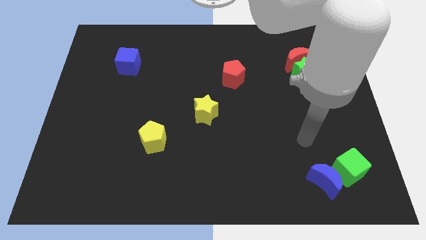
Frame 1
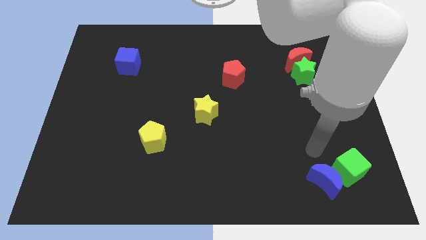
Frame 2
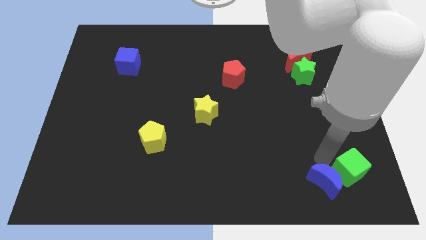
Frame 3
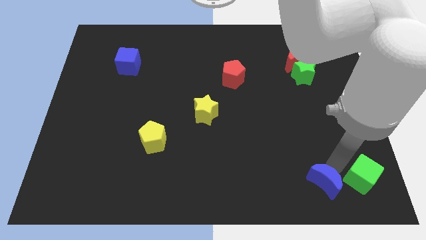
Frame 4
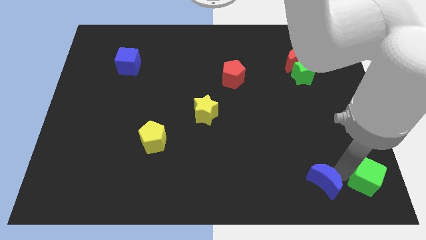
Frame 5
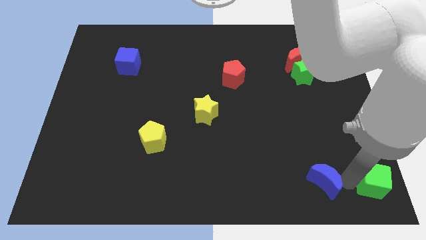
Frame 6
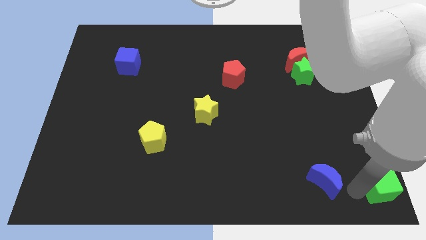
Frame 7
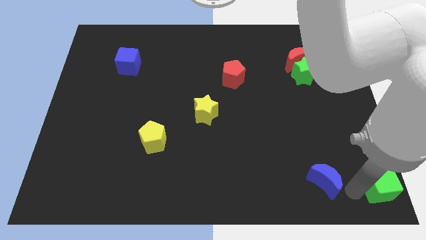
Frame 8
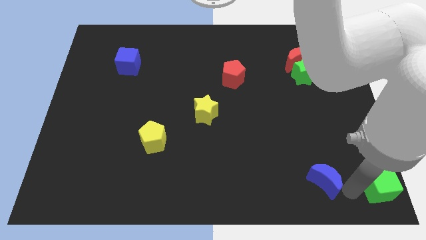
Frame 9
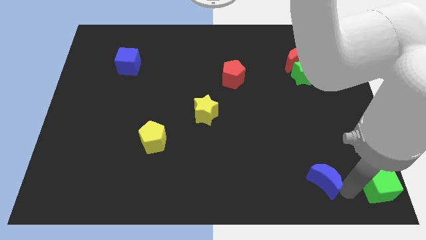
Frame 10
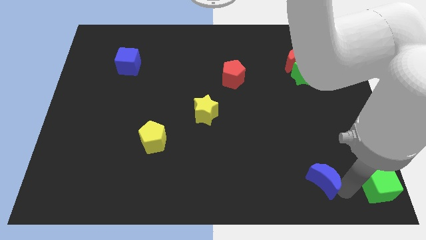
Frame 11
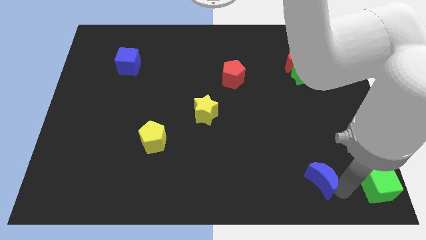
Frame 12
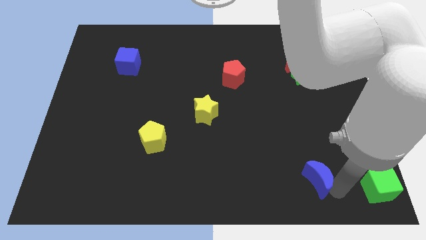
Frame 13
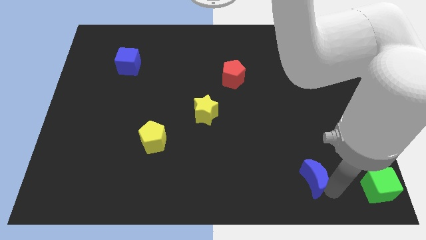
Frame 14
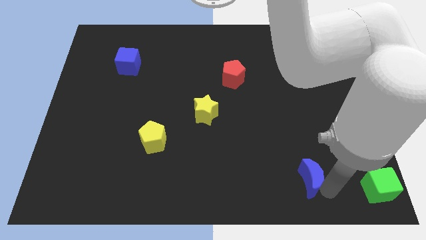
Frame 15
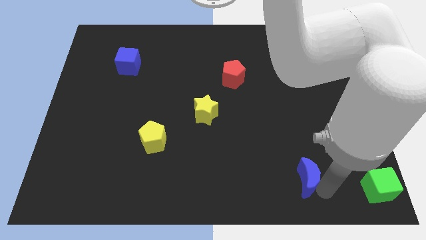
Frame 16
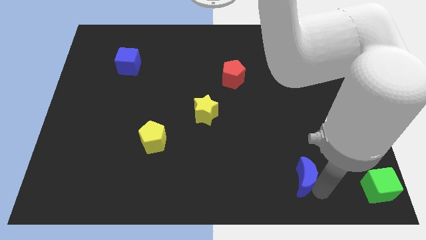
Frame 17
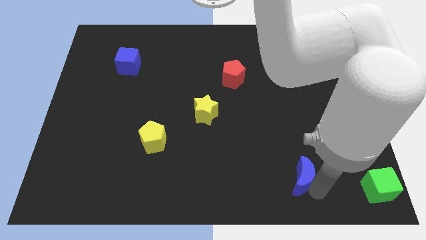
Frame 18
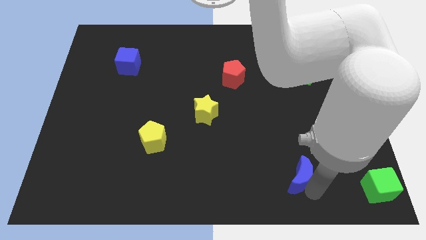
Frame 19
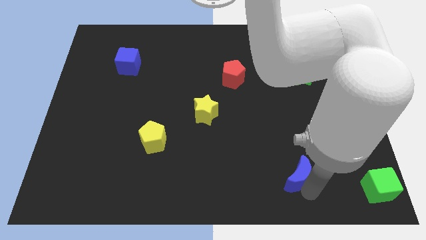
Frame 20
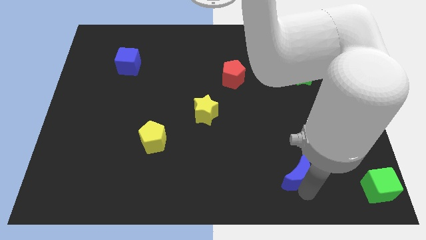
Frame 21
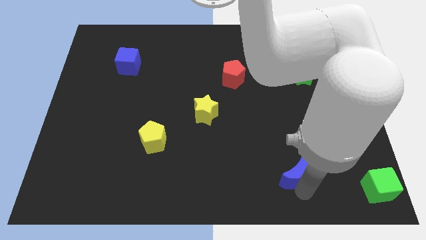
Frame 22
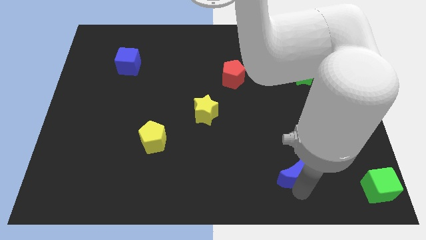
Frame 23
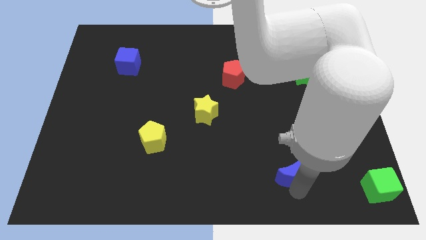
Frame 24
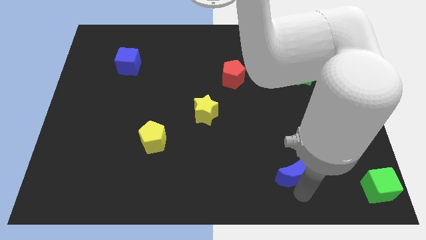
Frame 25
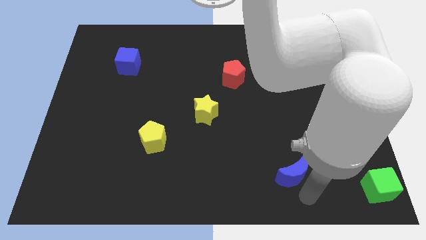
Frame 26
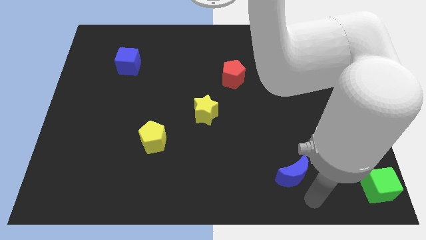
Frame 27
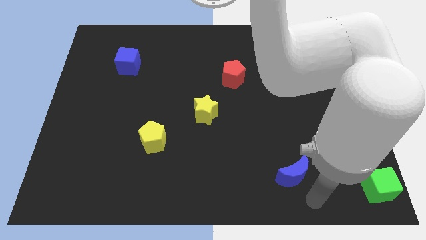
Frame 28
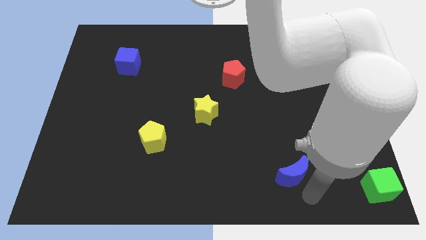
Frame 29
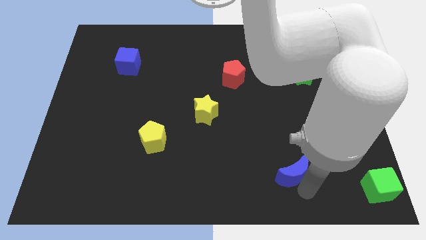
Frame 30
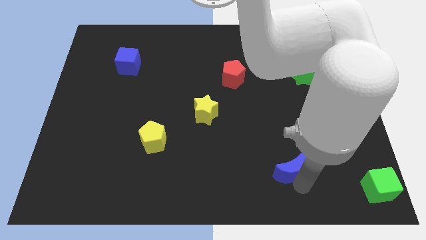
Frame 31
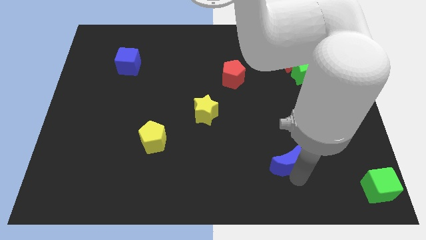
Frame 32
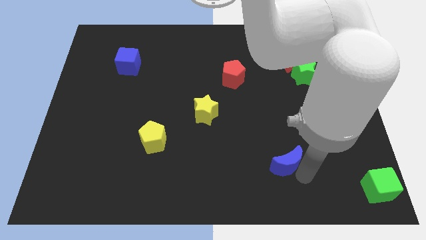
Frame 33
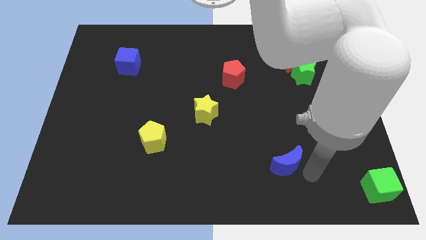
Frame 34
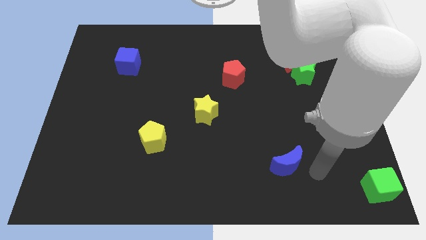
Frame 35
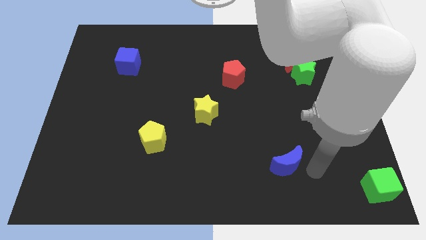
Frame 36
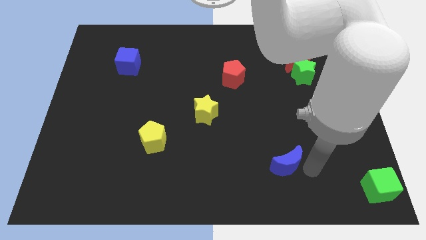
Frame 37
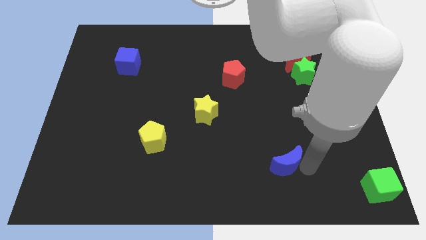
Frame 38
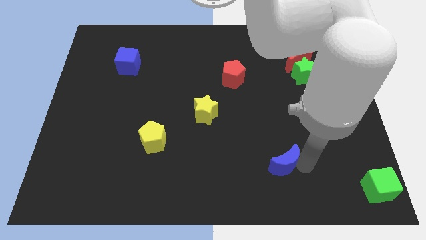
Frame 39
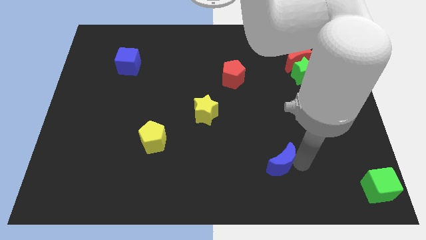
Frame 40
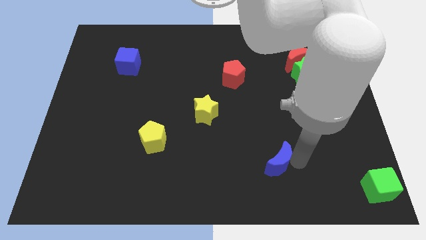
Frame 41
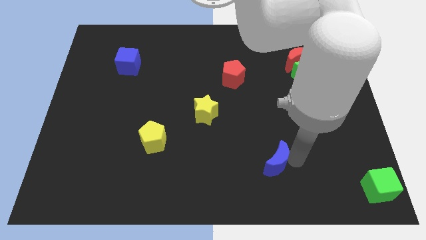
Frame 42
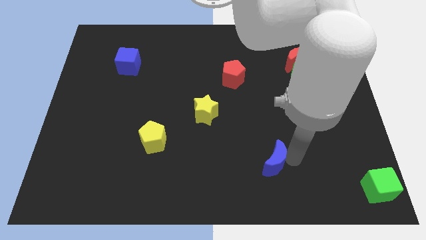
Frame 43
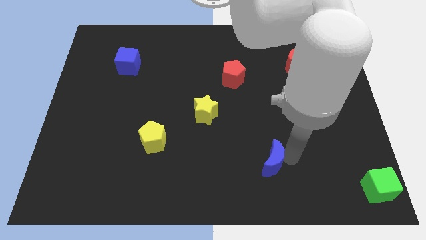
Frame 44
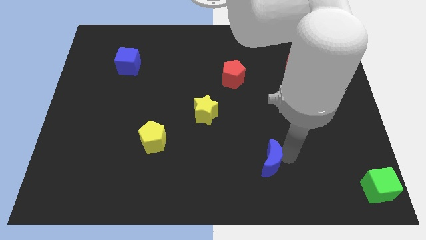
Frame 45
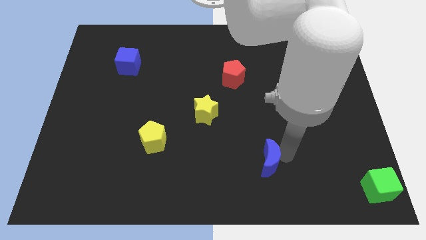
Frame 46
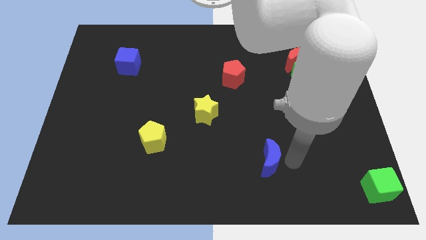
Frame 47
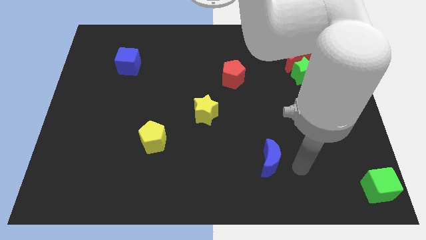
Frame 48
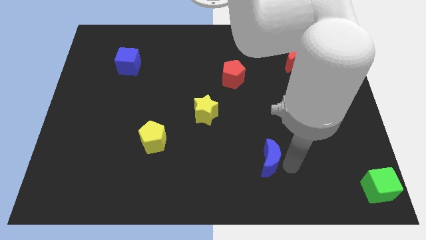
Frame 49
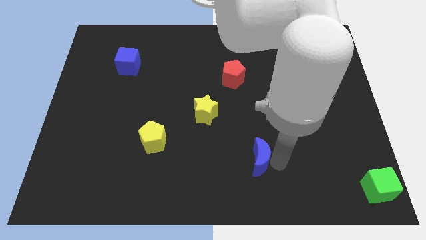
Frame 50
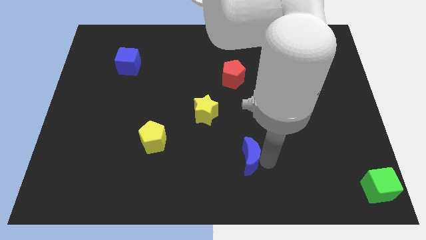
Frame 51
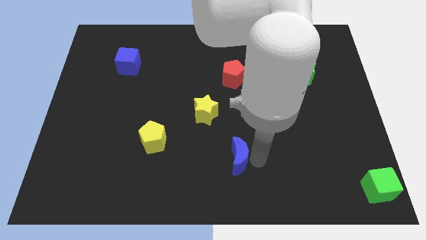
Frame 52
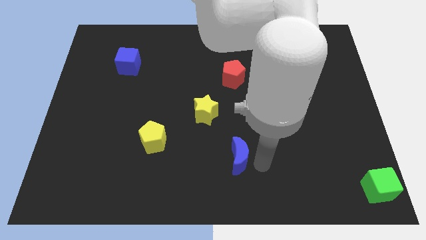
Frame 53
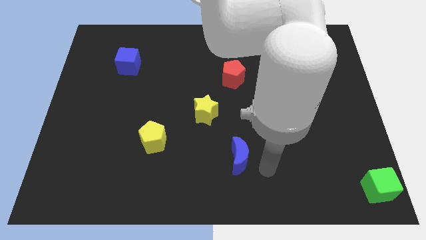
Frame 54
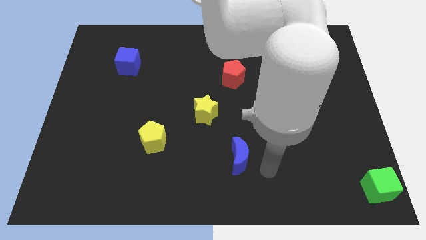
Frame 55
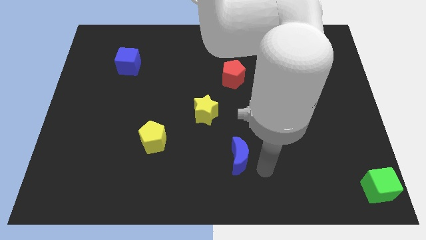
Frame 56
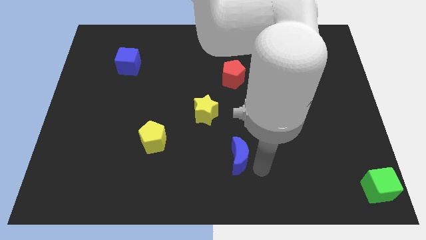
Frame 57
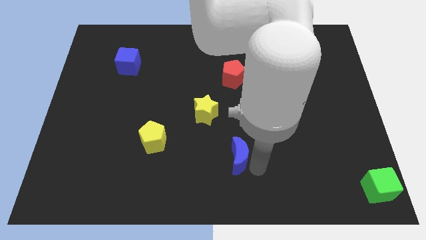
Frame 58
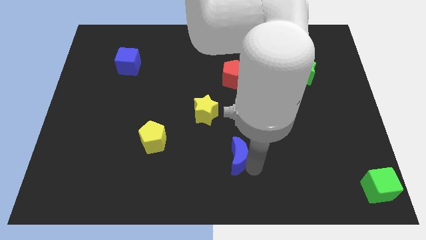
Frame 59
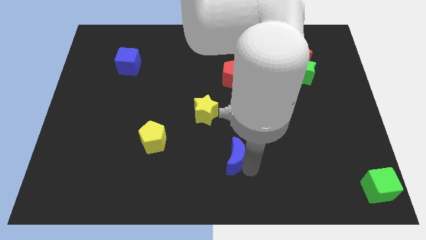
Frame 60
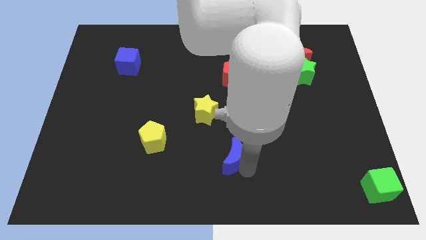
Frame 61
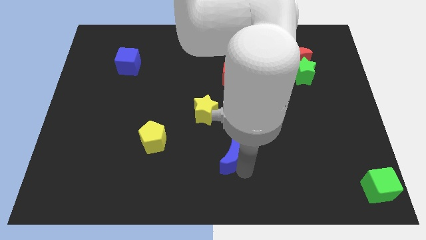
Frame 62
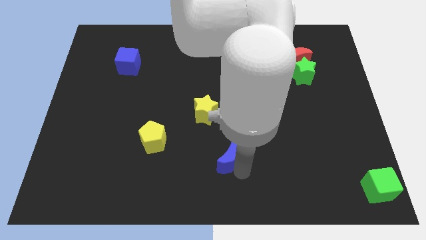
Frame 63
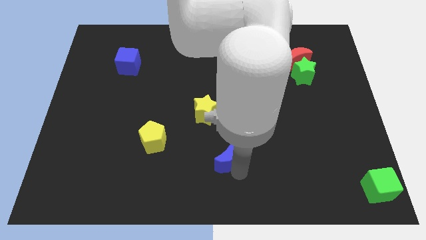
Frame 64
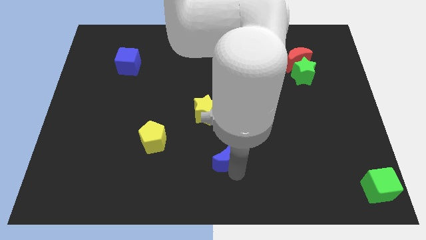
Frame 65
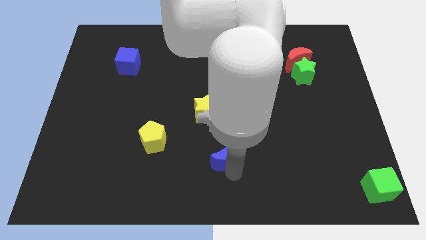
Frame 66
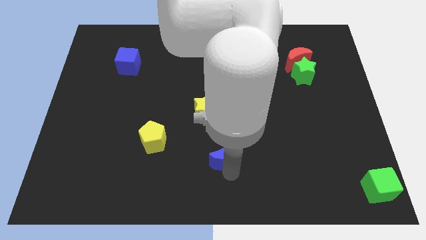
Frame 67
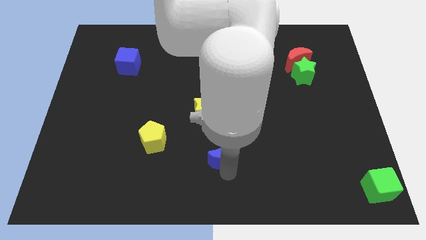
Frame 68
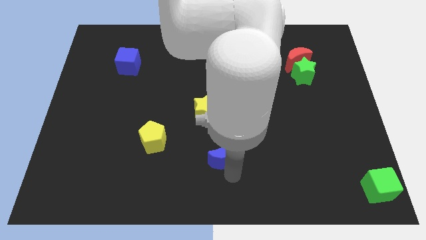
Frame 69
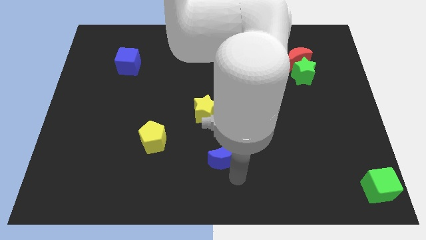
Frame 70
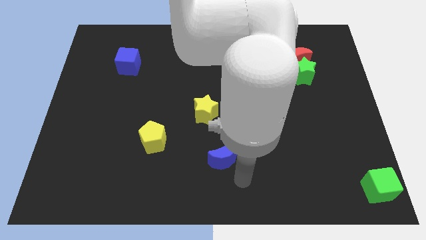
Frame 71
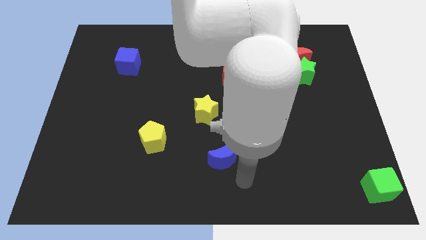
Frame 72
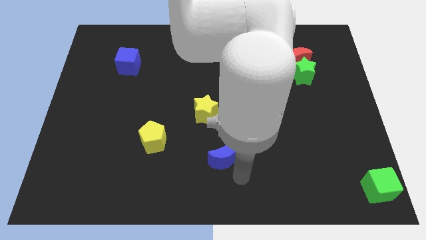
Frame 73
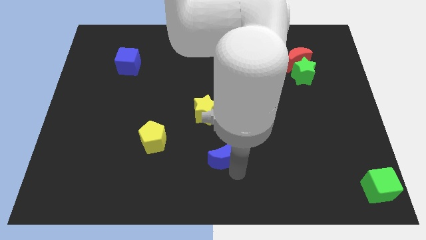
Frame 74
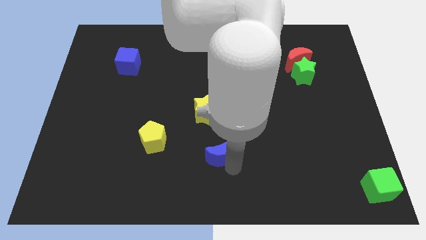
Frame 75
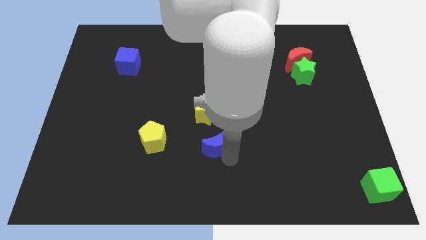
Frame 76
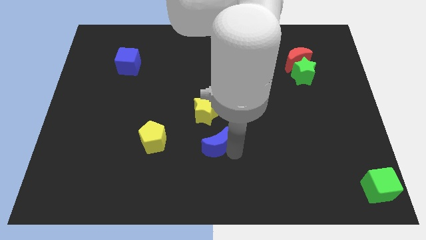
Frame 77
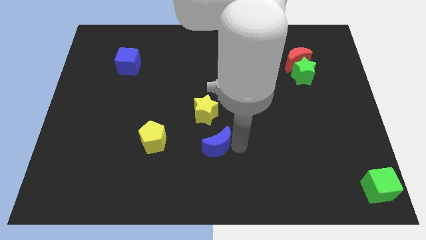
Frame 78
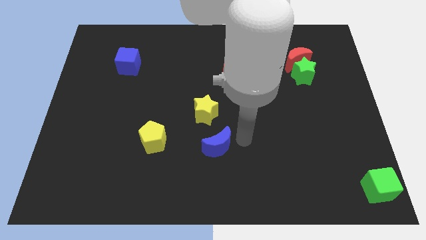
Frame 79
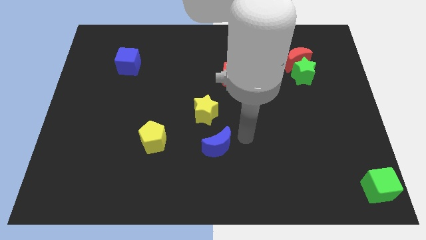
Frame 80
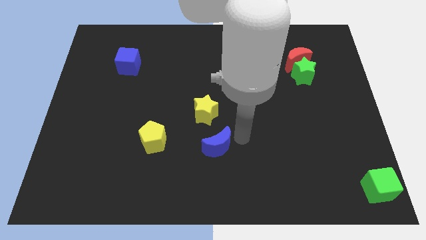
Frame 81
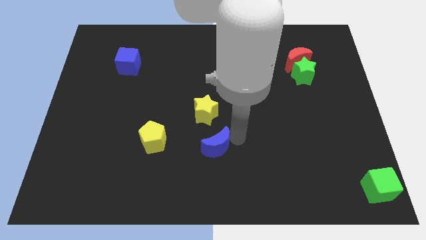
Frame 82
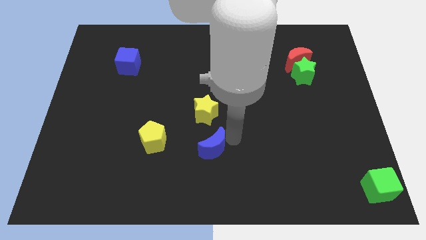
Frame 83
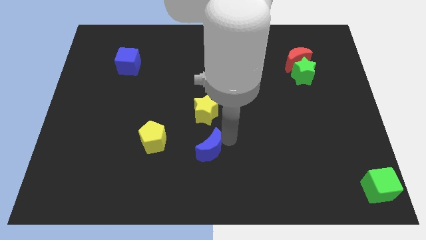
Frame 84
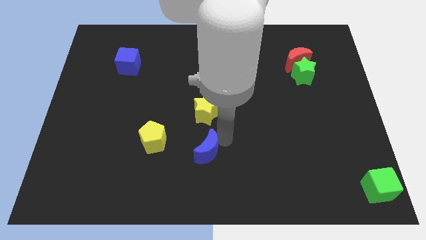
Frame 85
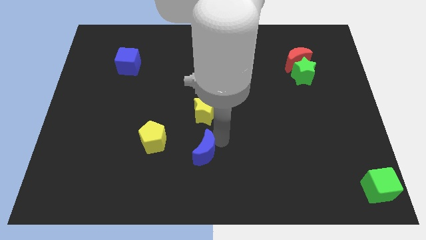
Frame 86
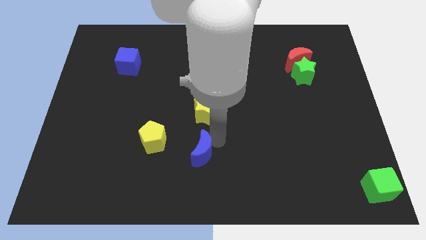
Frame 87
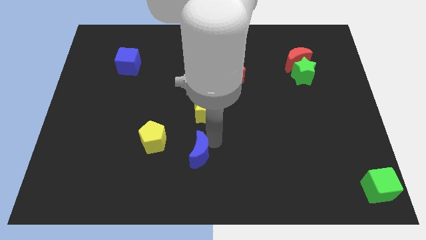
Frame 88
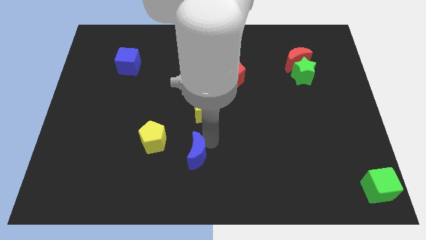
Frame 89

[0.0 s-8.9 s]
slide the blue moon diagonally down and to the right of the yellow pentagon
